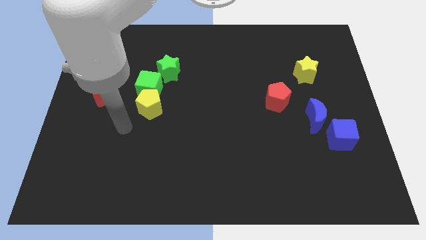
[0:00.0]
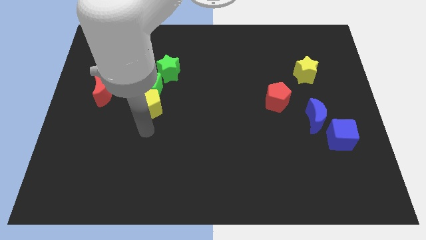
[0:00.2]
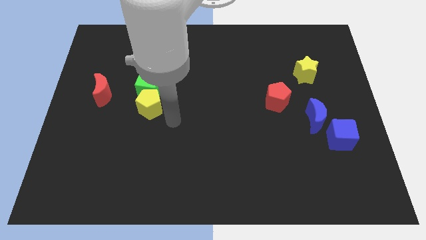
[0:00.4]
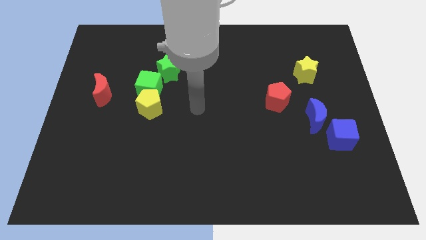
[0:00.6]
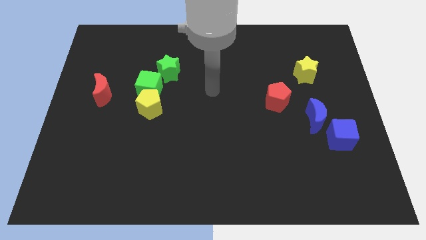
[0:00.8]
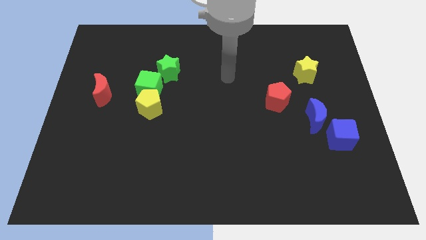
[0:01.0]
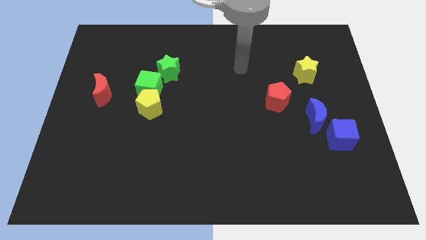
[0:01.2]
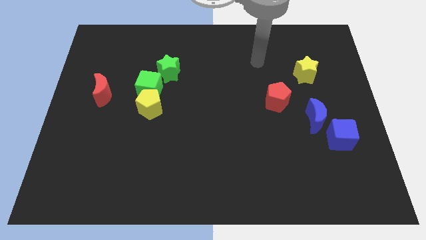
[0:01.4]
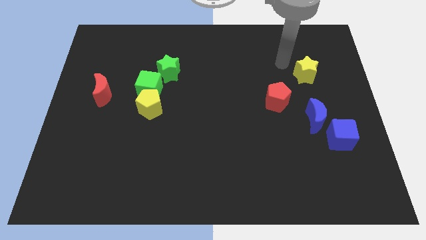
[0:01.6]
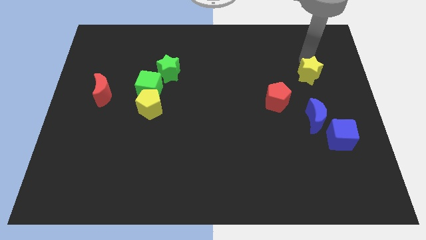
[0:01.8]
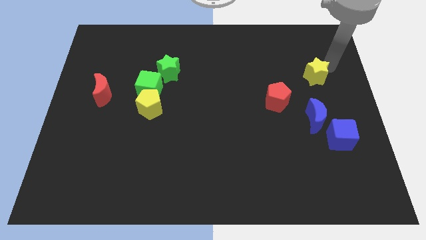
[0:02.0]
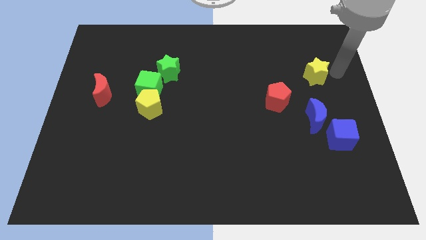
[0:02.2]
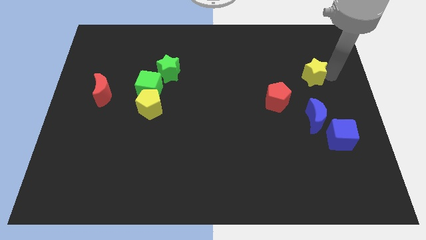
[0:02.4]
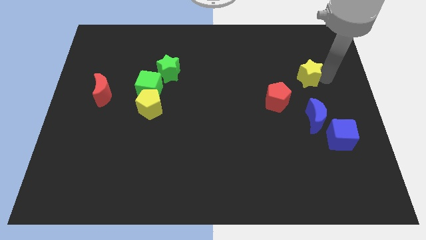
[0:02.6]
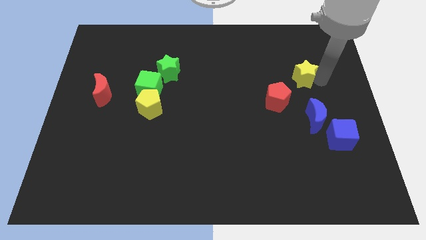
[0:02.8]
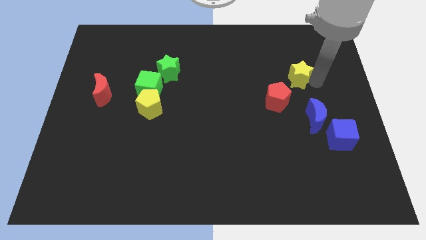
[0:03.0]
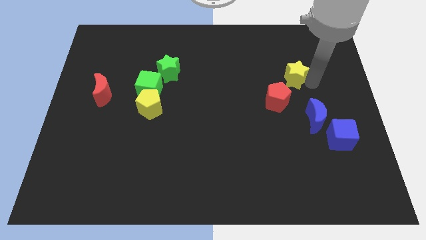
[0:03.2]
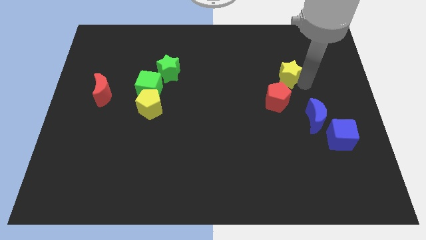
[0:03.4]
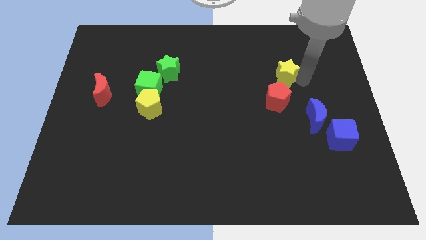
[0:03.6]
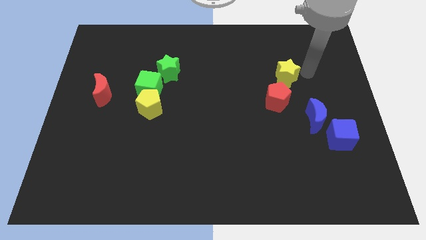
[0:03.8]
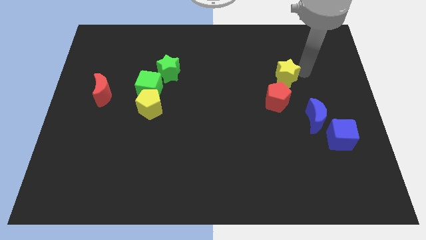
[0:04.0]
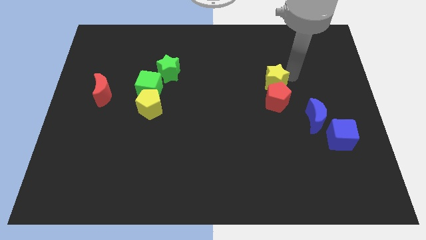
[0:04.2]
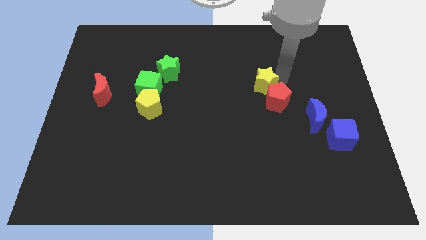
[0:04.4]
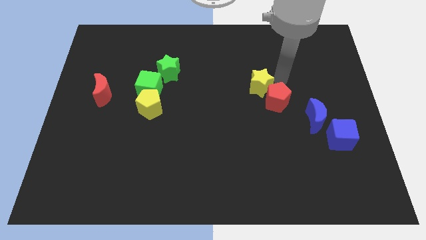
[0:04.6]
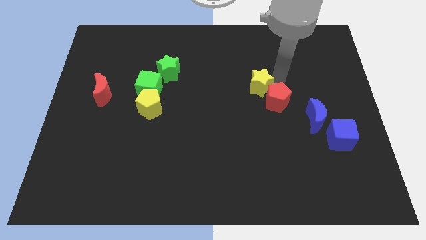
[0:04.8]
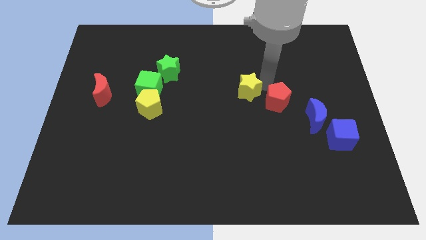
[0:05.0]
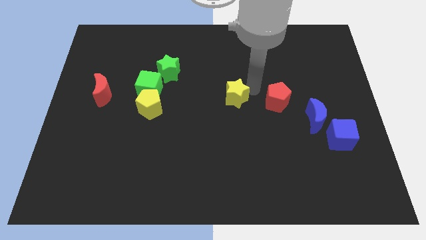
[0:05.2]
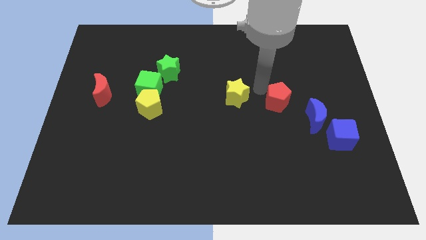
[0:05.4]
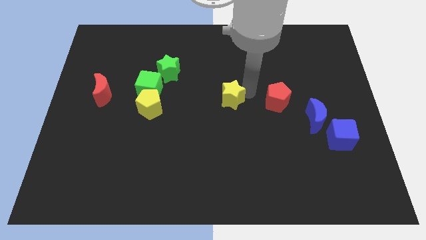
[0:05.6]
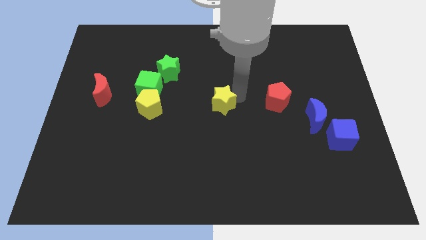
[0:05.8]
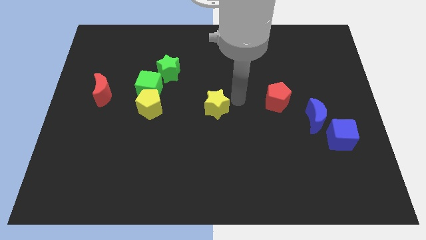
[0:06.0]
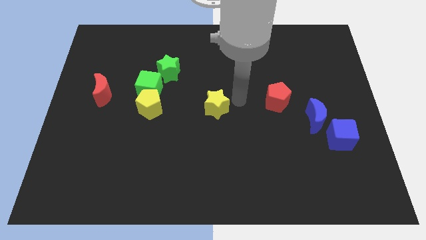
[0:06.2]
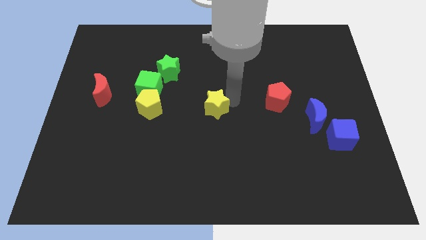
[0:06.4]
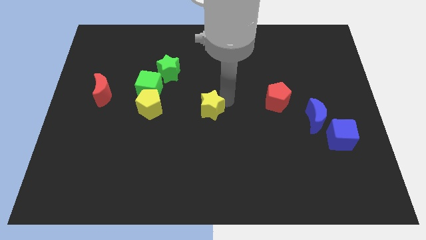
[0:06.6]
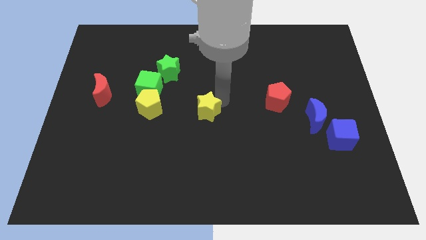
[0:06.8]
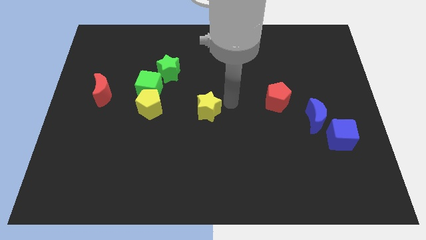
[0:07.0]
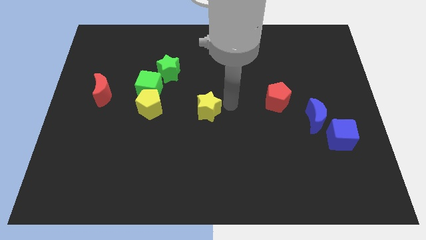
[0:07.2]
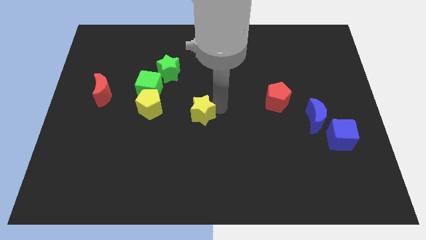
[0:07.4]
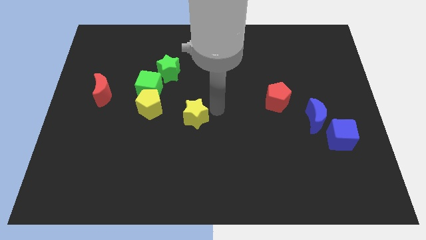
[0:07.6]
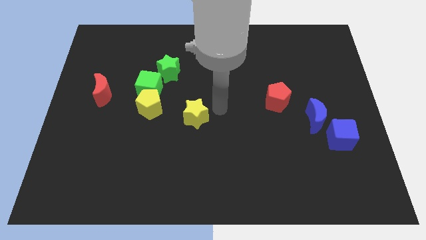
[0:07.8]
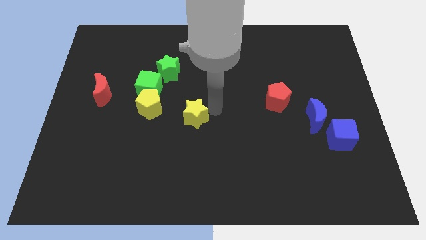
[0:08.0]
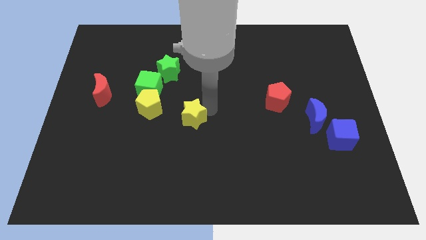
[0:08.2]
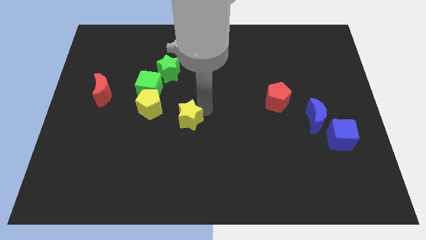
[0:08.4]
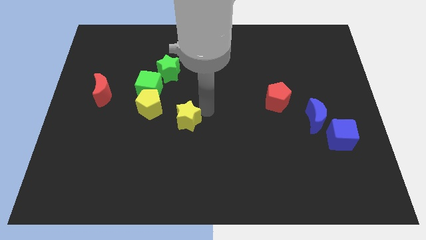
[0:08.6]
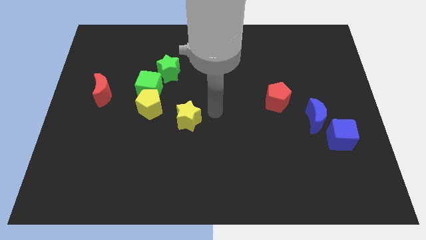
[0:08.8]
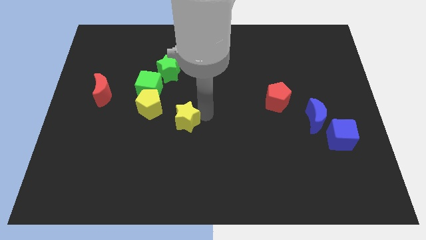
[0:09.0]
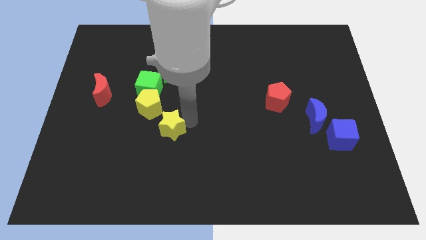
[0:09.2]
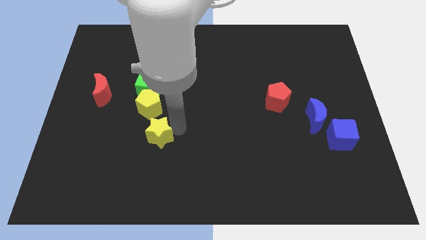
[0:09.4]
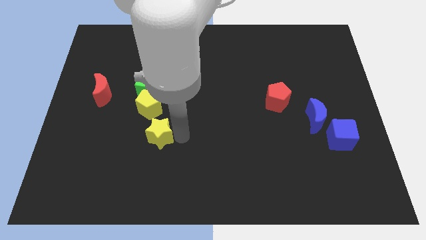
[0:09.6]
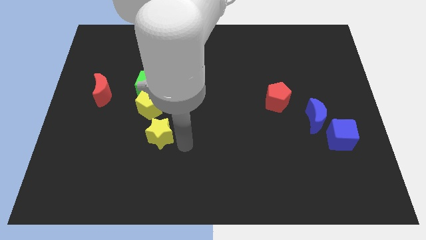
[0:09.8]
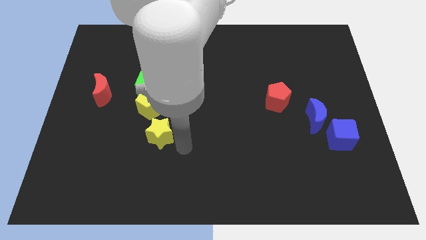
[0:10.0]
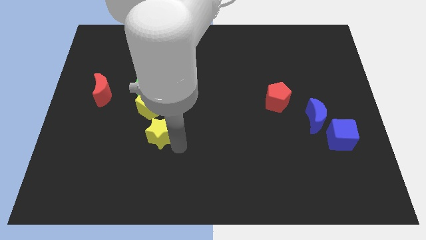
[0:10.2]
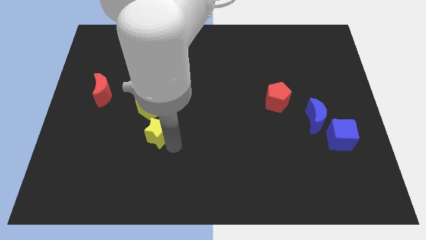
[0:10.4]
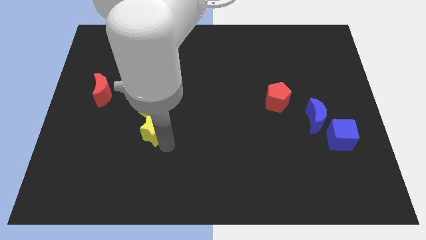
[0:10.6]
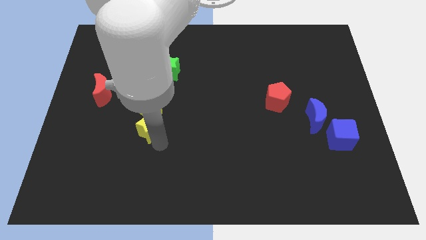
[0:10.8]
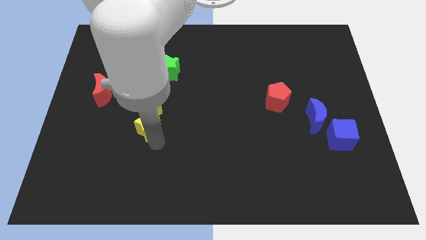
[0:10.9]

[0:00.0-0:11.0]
push the yellow star to the bottom left of the yellow pentagon
